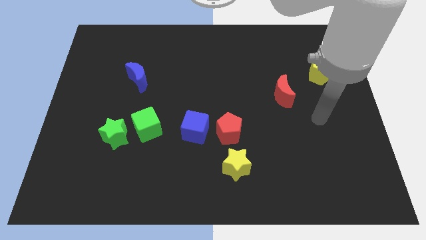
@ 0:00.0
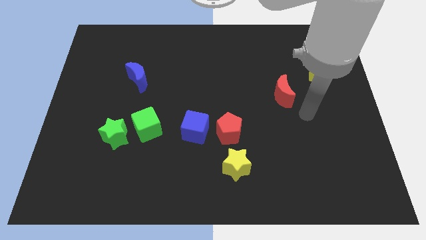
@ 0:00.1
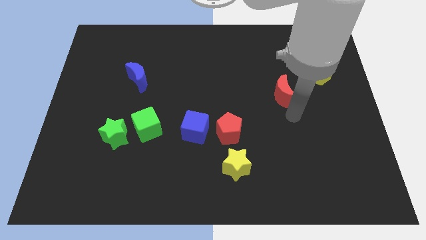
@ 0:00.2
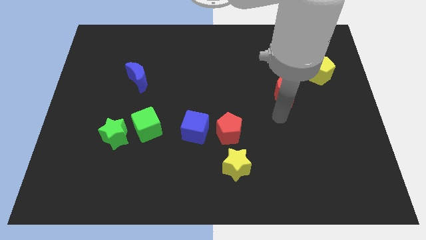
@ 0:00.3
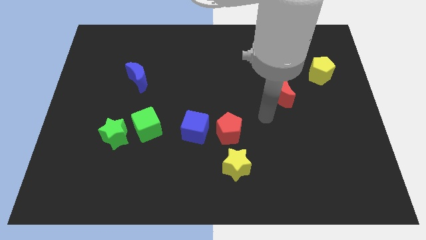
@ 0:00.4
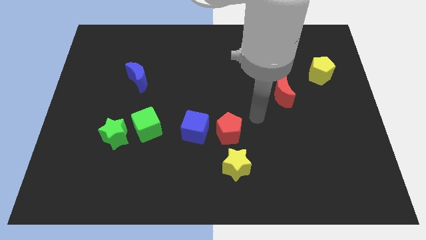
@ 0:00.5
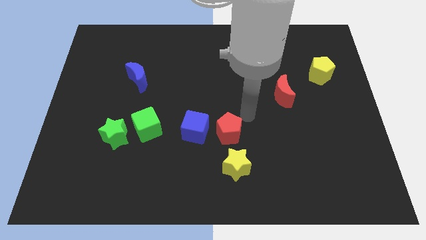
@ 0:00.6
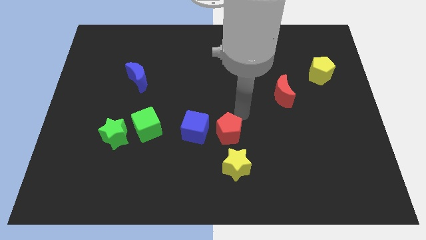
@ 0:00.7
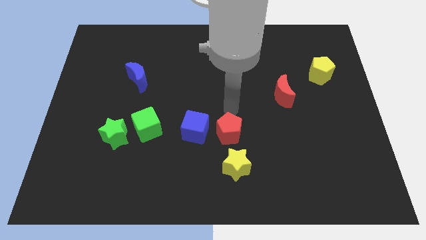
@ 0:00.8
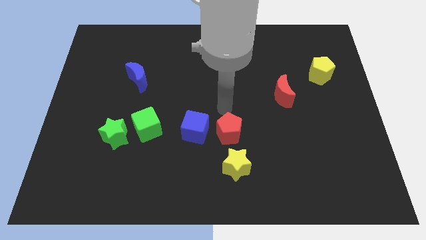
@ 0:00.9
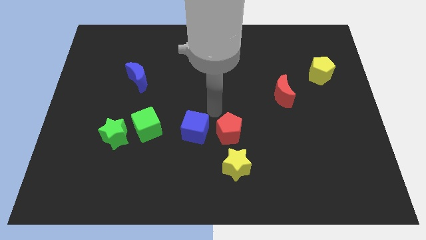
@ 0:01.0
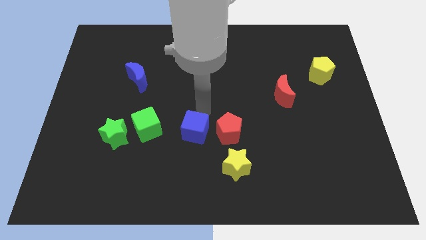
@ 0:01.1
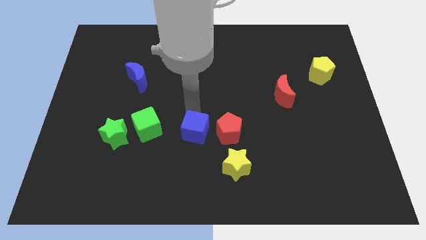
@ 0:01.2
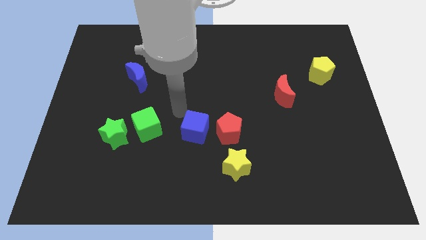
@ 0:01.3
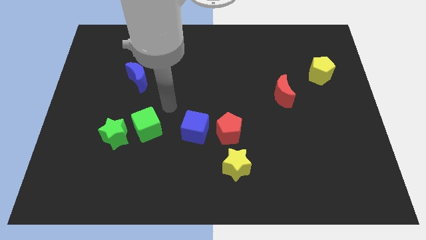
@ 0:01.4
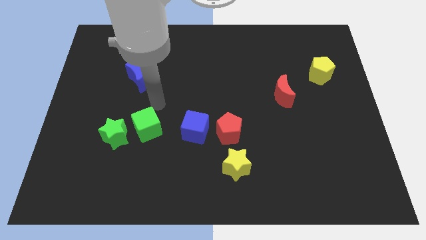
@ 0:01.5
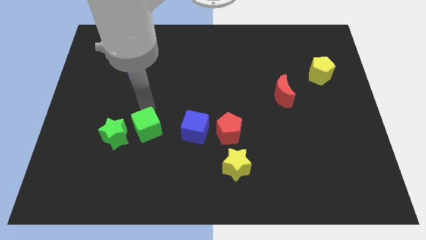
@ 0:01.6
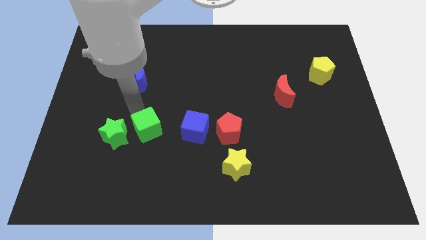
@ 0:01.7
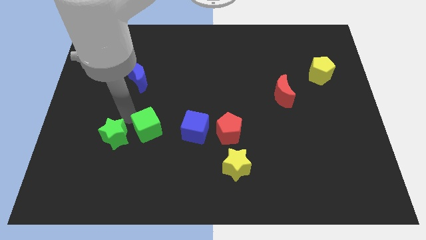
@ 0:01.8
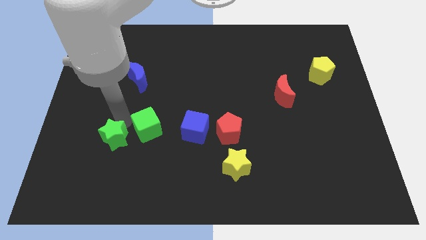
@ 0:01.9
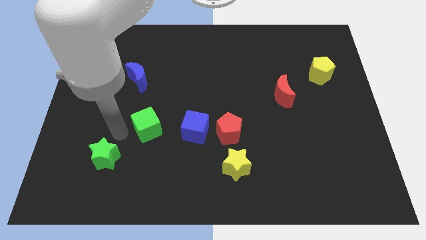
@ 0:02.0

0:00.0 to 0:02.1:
move the green cube away from the green star

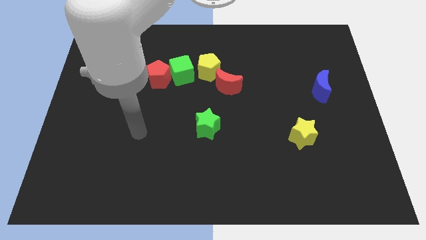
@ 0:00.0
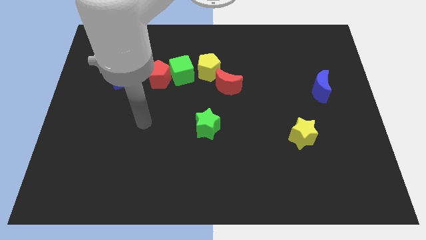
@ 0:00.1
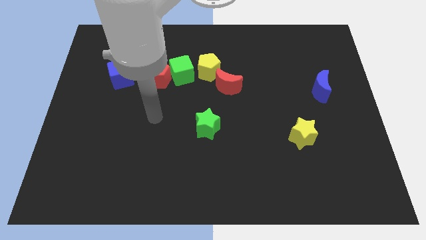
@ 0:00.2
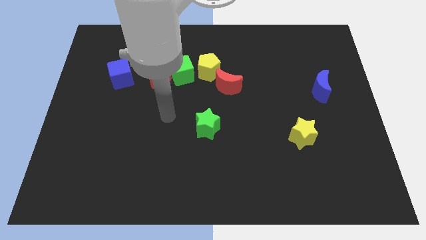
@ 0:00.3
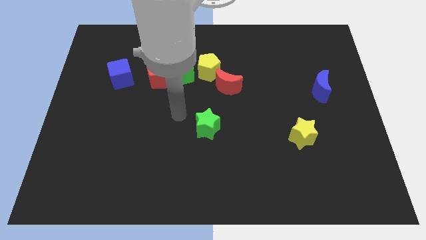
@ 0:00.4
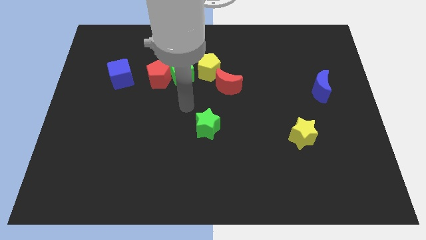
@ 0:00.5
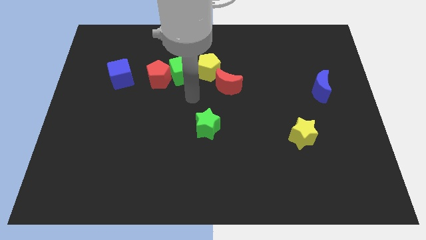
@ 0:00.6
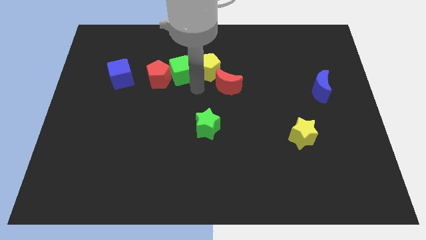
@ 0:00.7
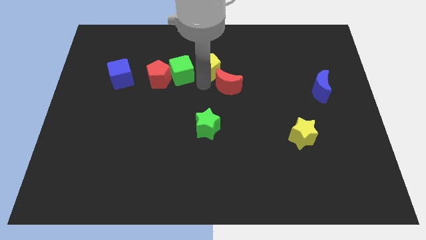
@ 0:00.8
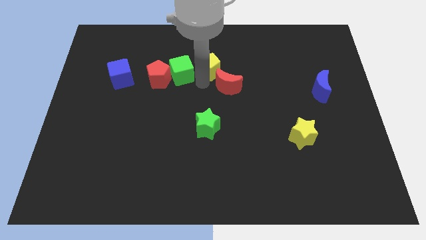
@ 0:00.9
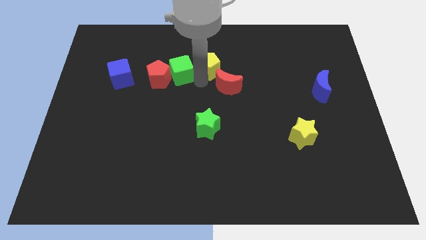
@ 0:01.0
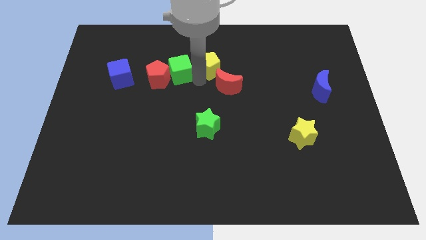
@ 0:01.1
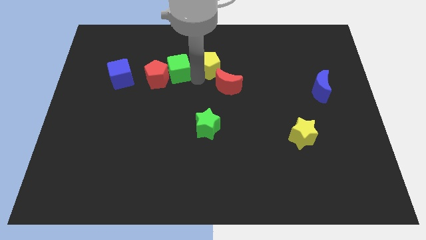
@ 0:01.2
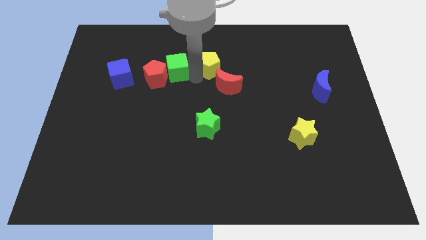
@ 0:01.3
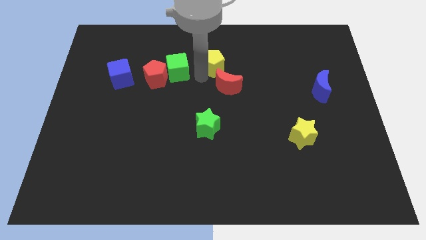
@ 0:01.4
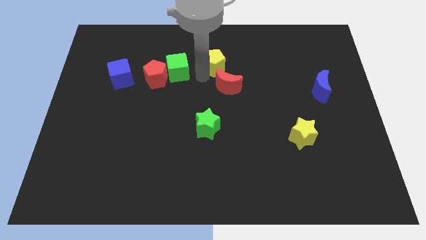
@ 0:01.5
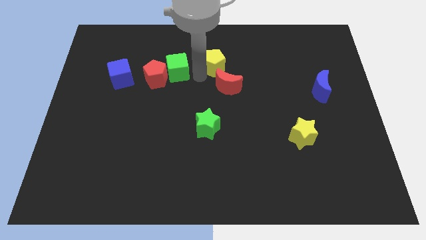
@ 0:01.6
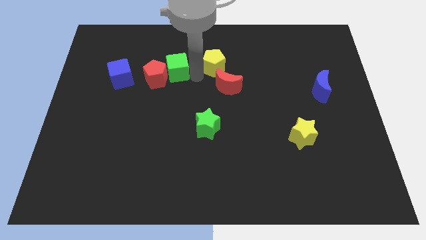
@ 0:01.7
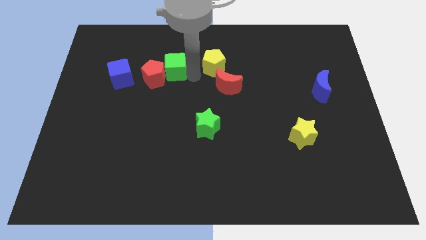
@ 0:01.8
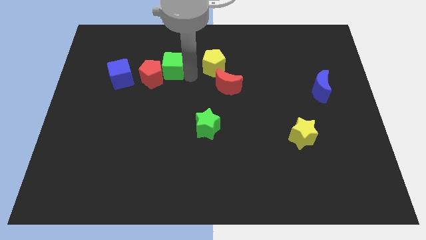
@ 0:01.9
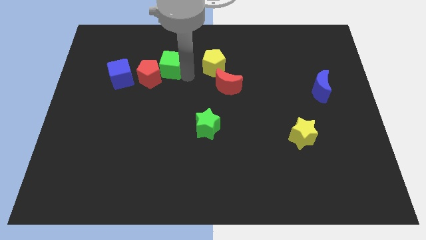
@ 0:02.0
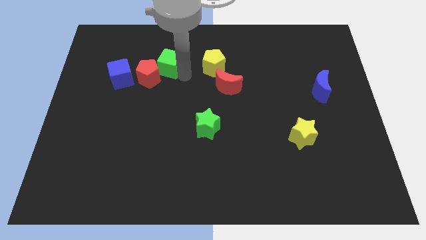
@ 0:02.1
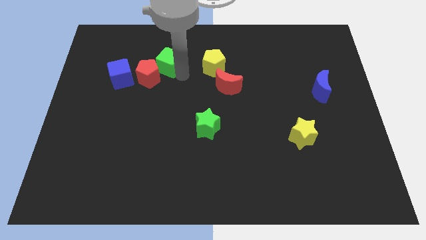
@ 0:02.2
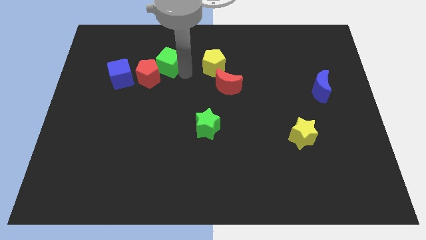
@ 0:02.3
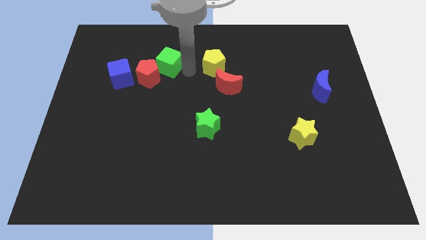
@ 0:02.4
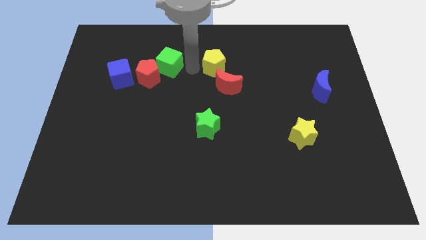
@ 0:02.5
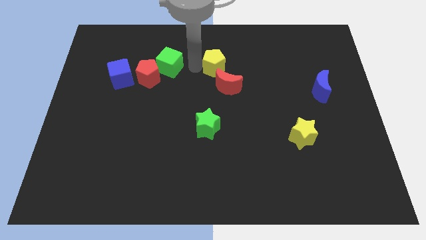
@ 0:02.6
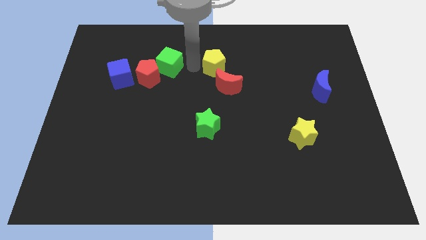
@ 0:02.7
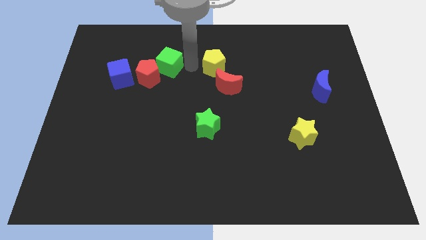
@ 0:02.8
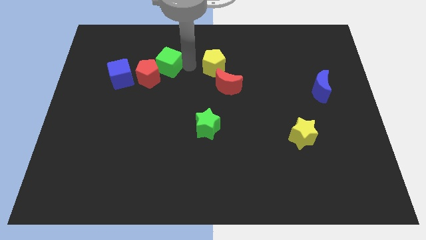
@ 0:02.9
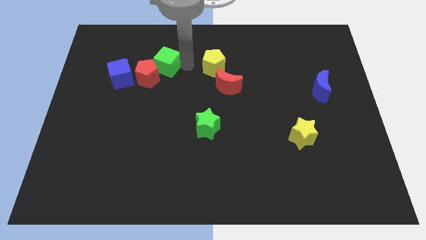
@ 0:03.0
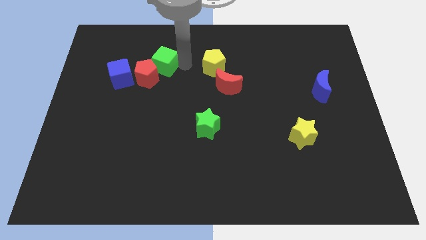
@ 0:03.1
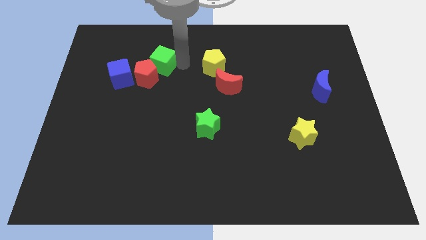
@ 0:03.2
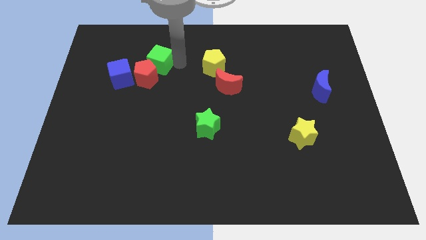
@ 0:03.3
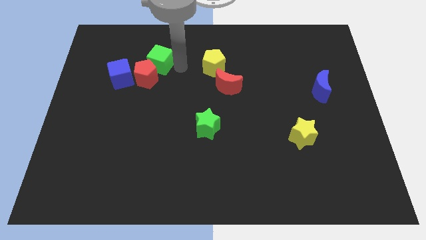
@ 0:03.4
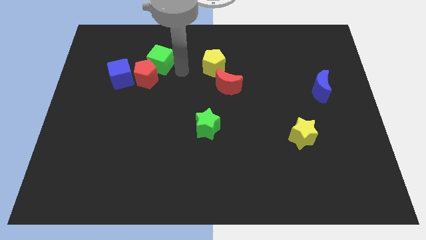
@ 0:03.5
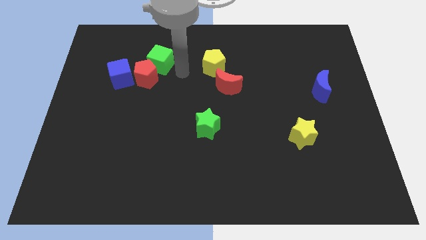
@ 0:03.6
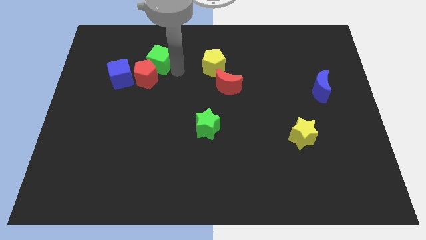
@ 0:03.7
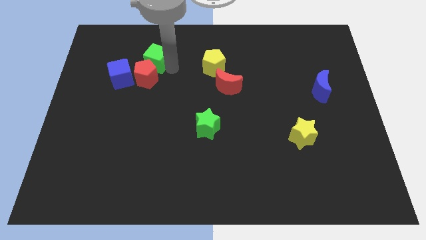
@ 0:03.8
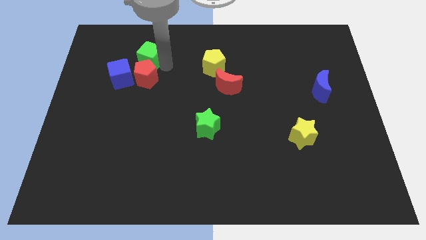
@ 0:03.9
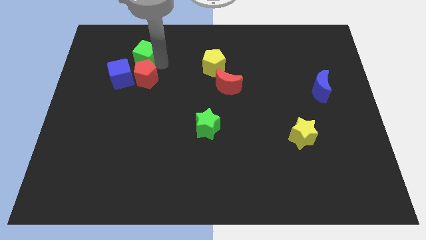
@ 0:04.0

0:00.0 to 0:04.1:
separate the green cube from the red pentagon and yellow pentagon

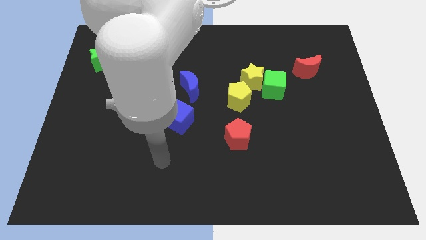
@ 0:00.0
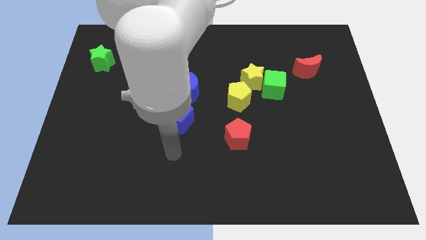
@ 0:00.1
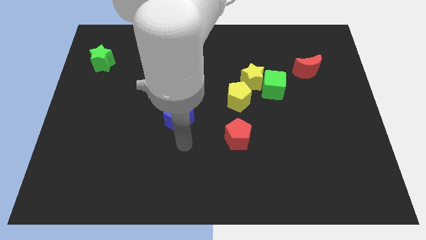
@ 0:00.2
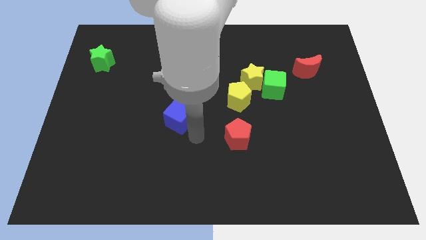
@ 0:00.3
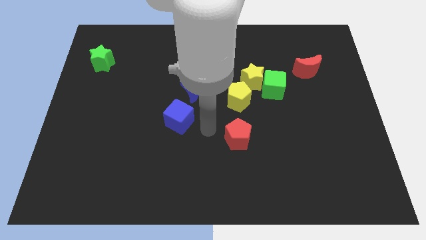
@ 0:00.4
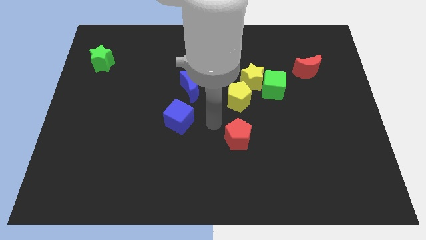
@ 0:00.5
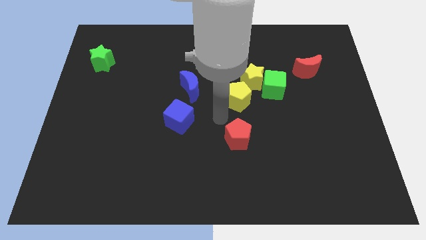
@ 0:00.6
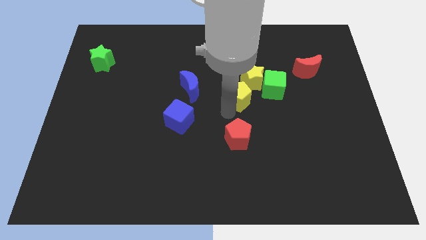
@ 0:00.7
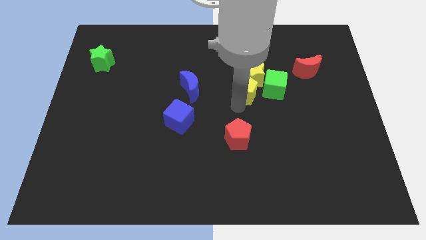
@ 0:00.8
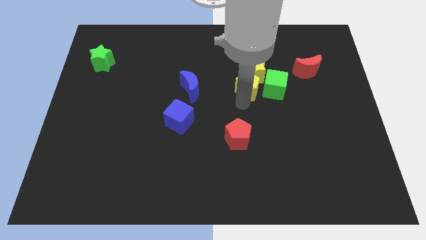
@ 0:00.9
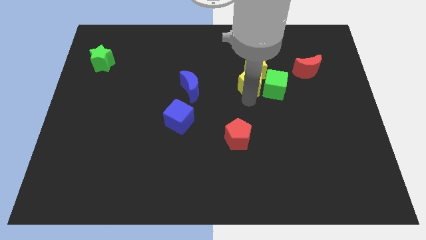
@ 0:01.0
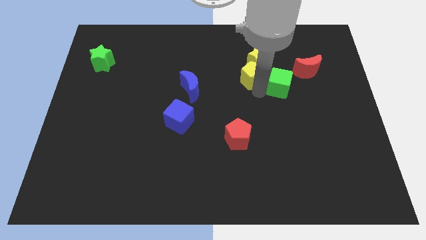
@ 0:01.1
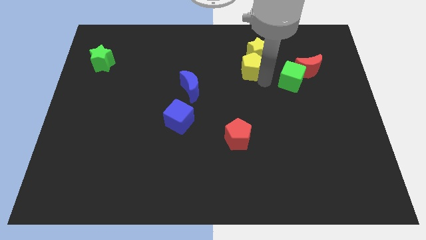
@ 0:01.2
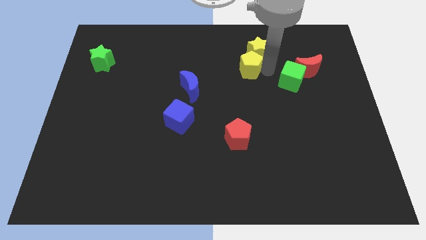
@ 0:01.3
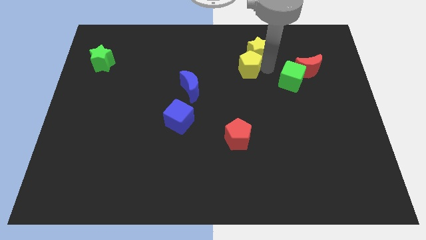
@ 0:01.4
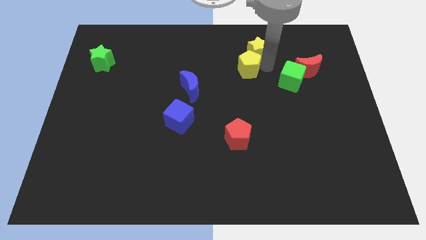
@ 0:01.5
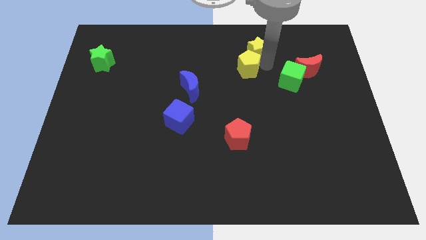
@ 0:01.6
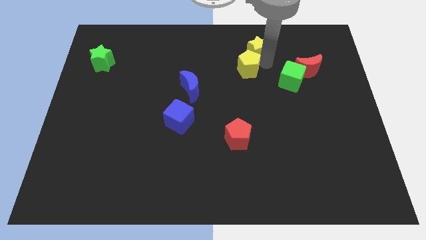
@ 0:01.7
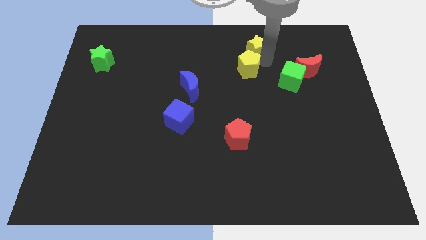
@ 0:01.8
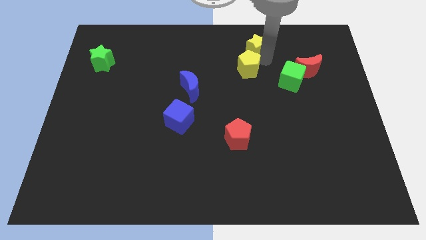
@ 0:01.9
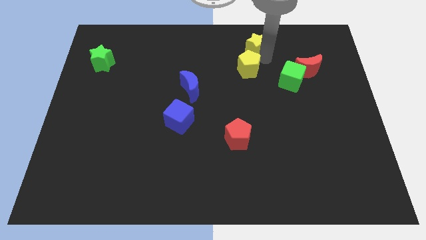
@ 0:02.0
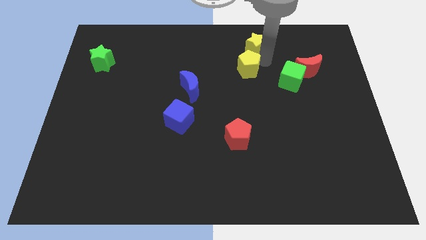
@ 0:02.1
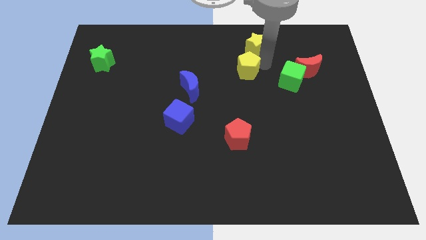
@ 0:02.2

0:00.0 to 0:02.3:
move the yellow star away from the green cube and yellow pentagon

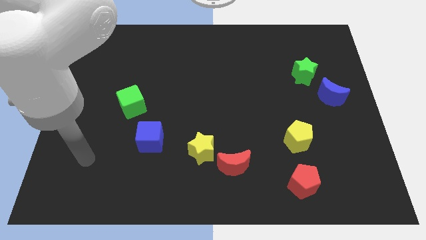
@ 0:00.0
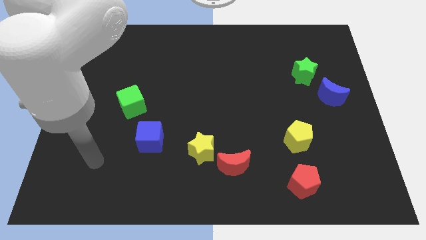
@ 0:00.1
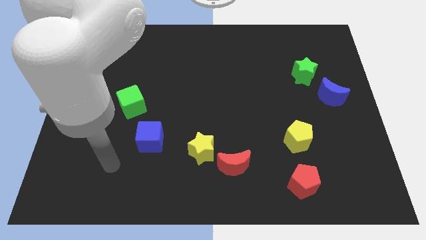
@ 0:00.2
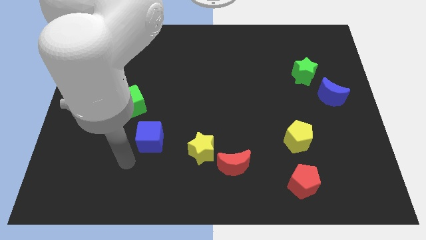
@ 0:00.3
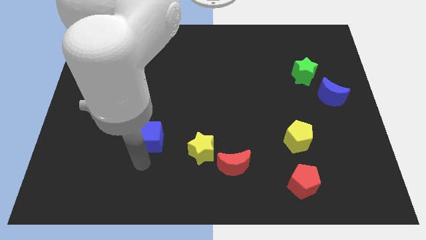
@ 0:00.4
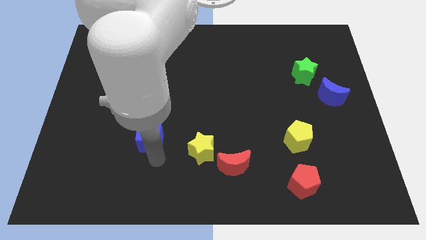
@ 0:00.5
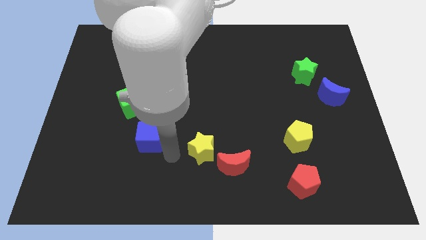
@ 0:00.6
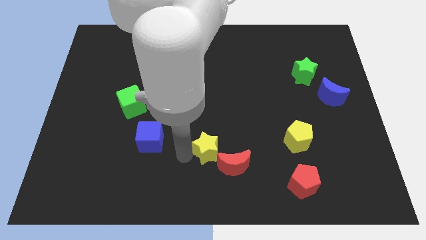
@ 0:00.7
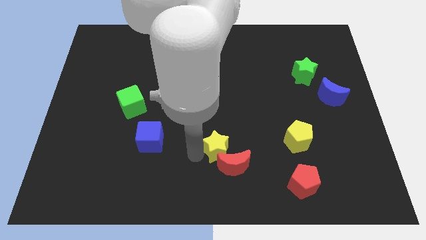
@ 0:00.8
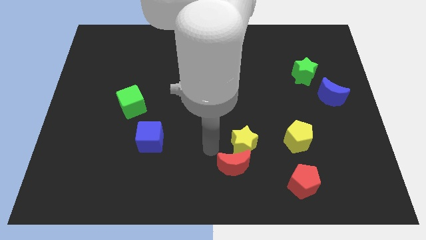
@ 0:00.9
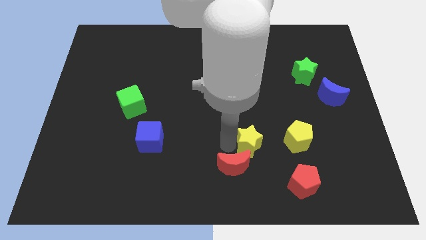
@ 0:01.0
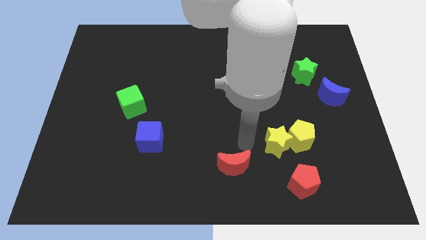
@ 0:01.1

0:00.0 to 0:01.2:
pull the red moon apart from the yellow star
